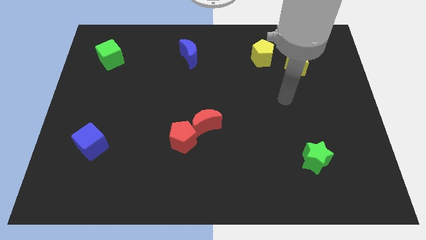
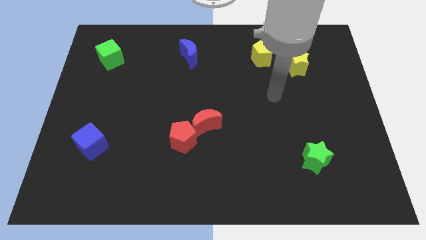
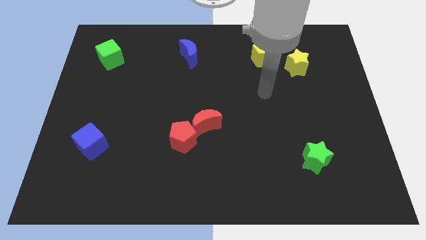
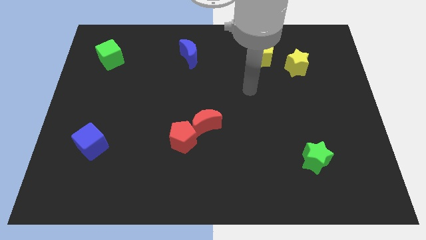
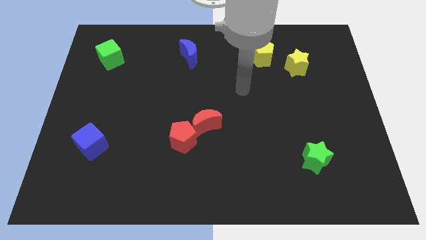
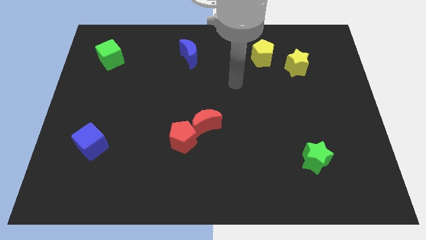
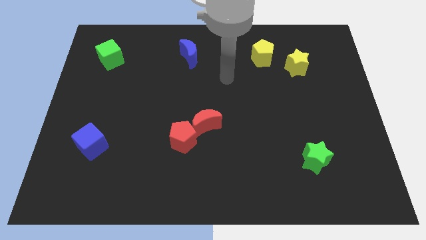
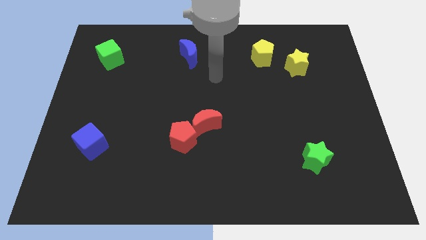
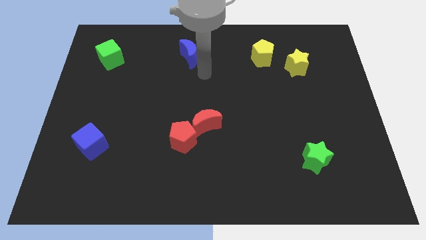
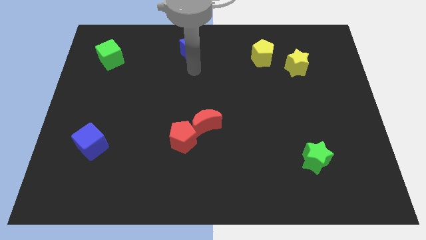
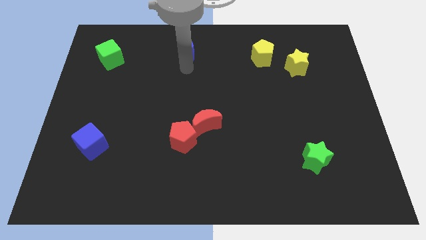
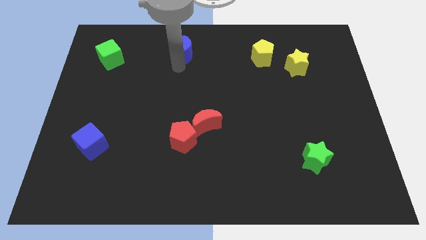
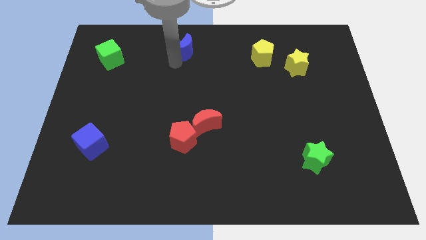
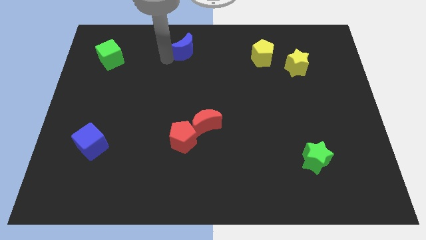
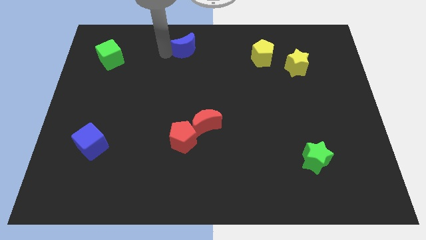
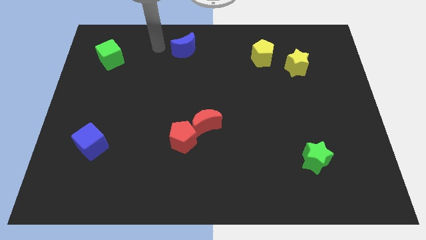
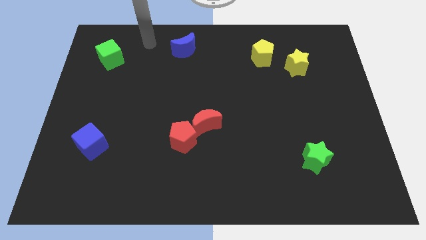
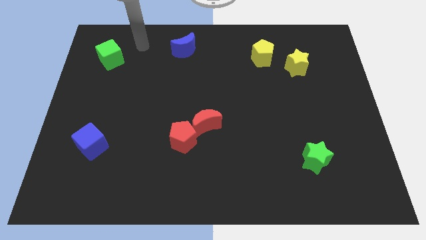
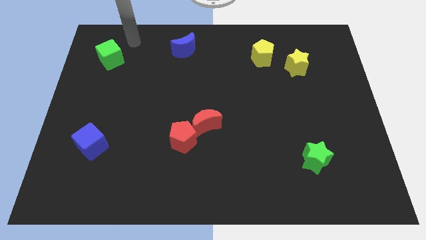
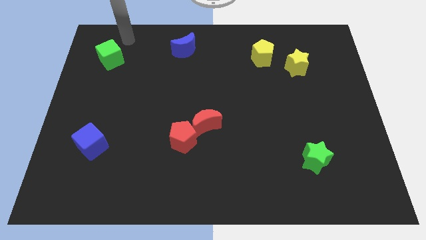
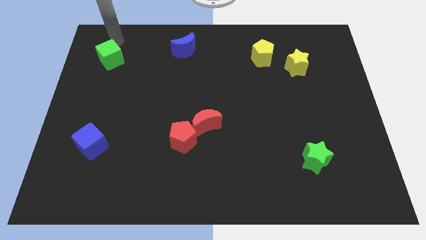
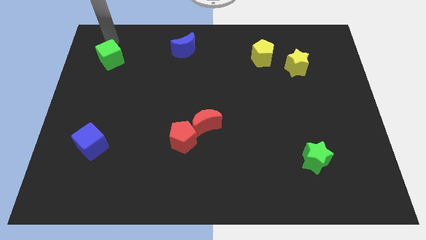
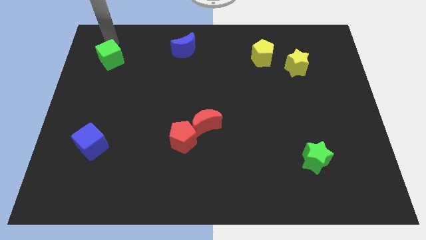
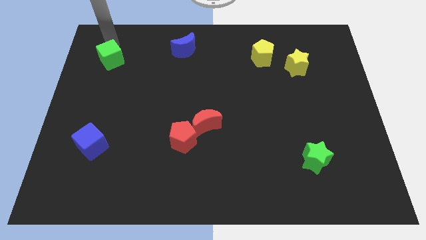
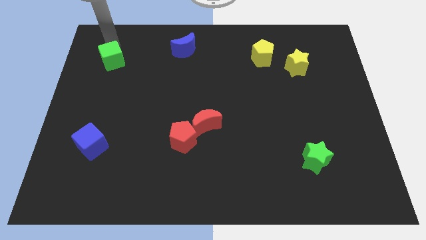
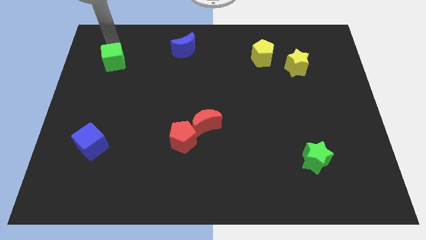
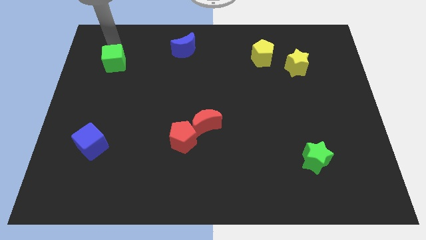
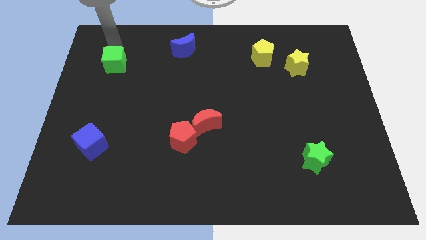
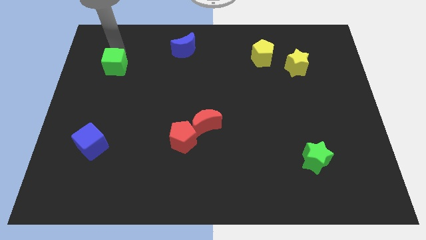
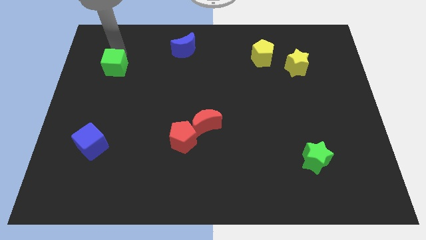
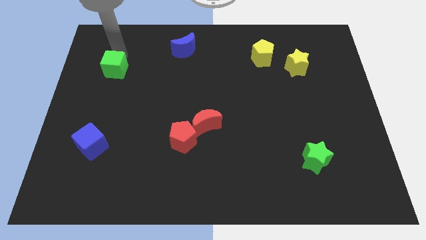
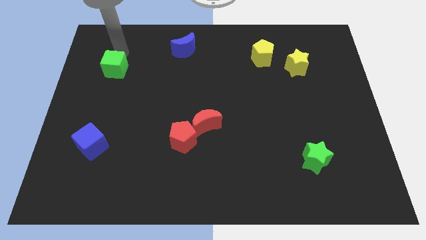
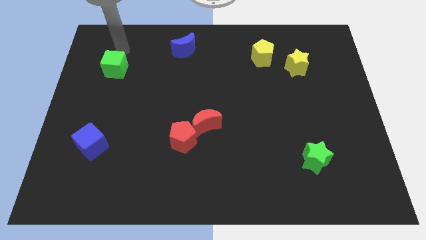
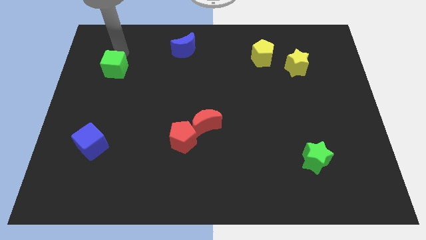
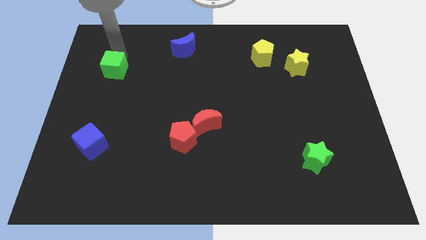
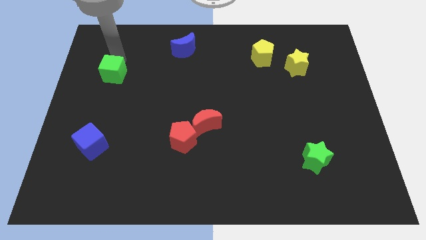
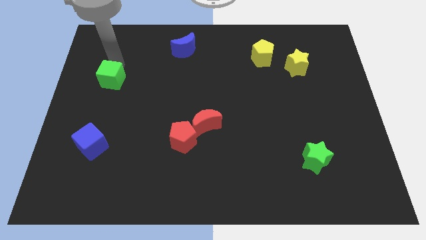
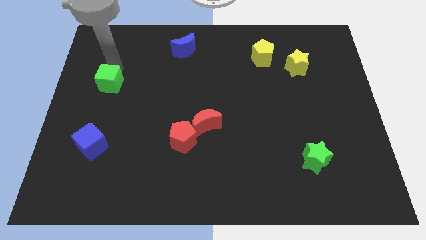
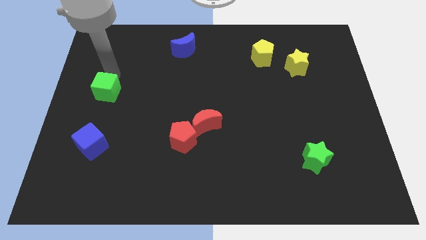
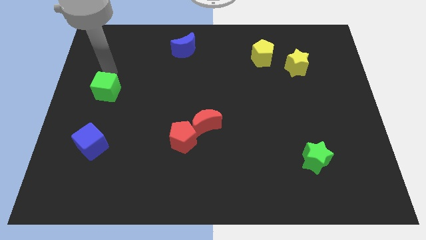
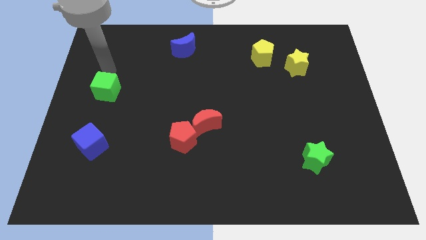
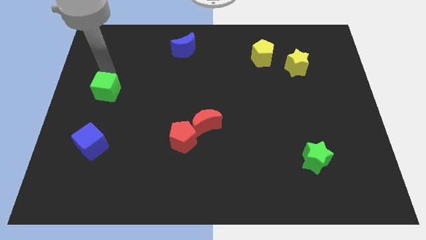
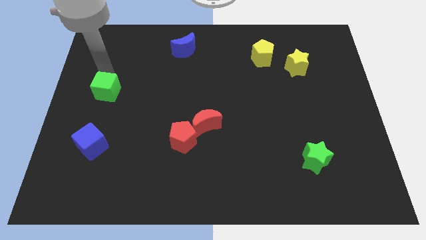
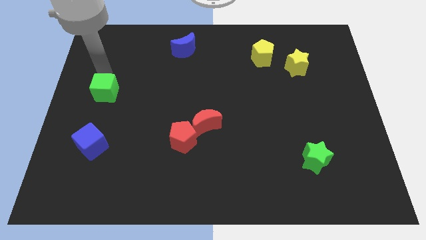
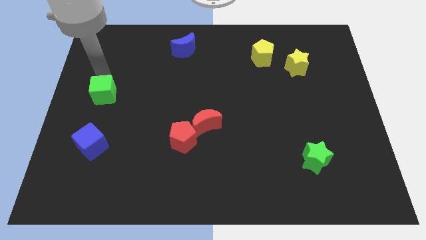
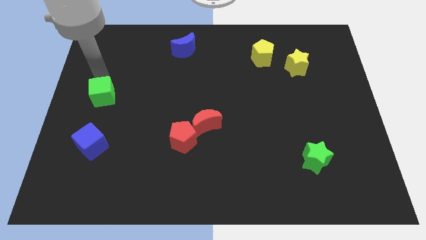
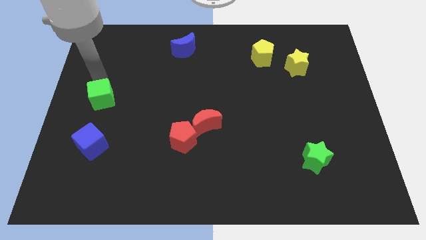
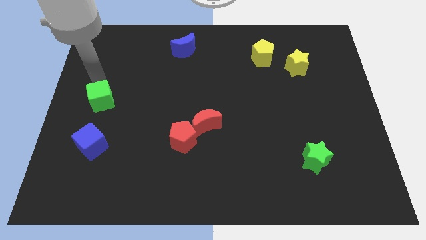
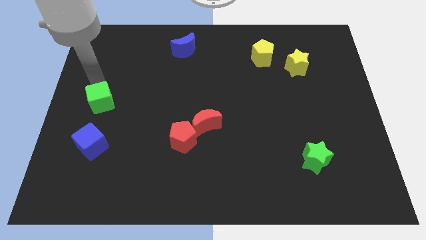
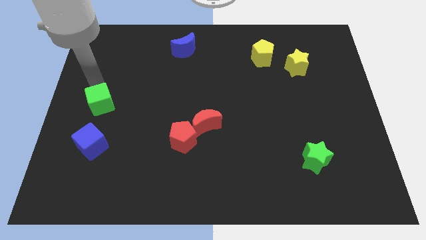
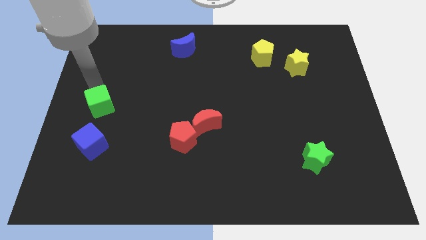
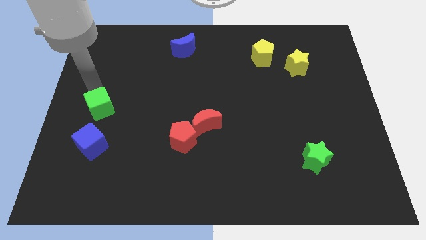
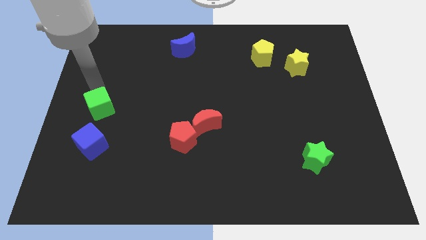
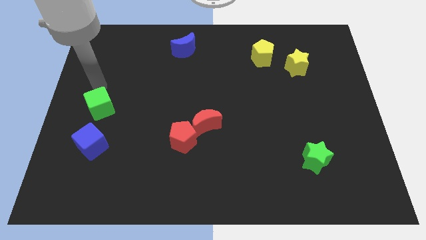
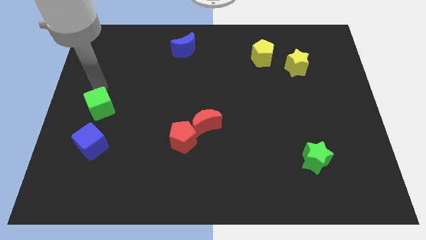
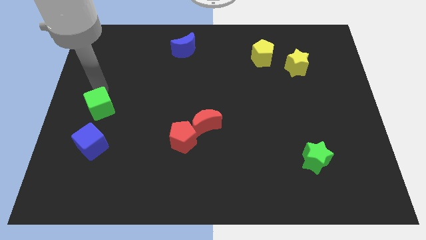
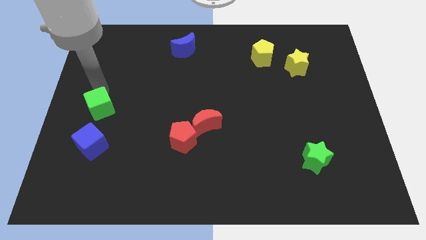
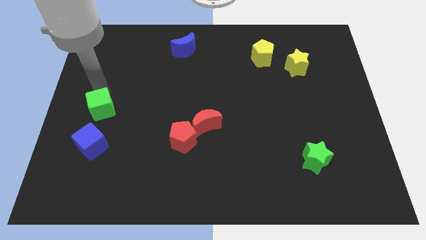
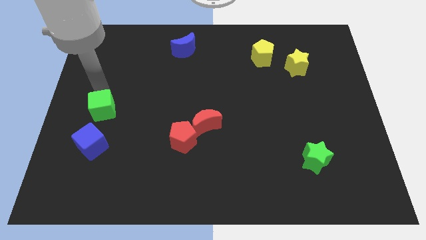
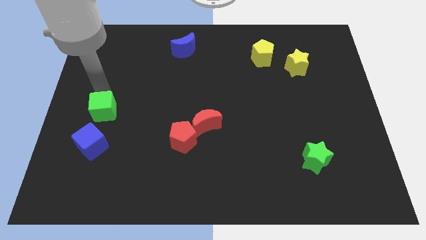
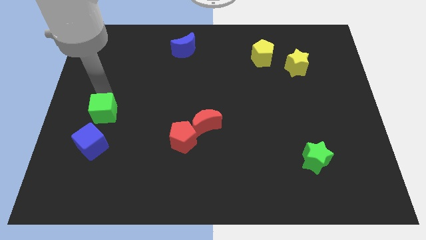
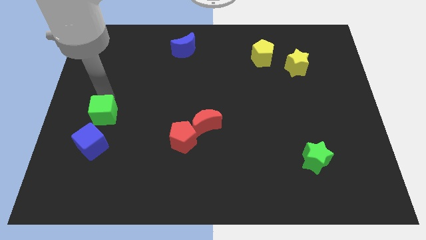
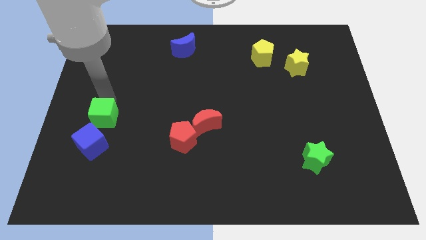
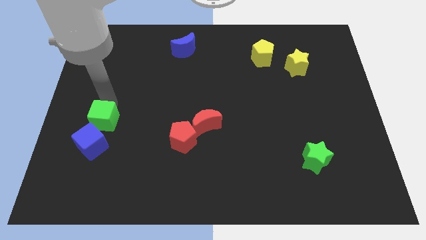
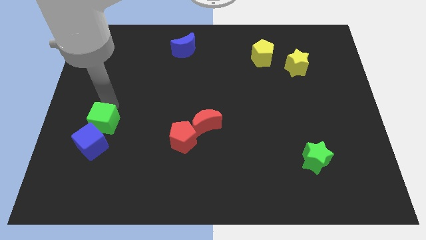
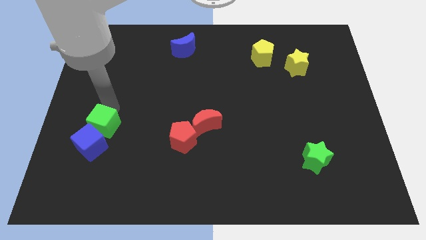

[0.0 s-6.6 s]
move the green cube next to the blue cube

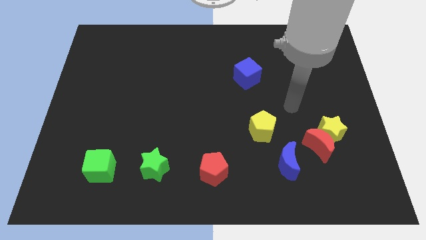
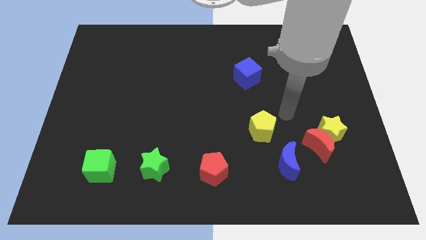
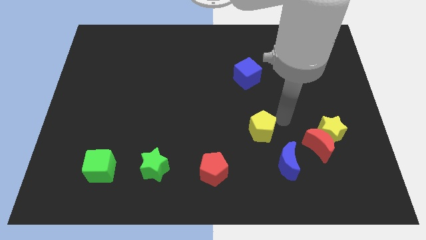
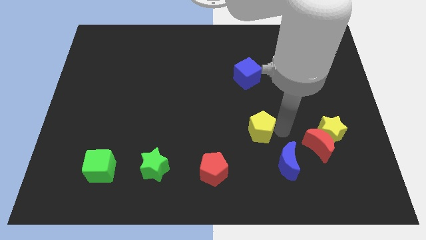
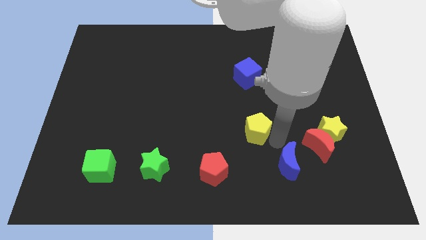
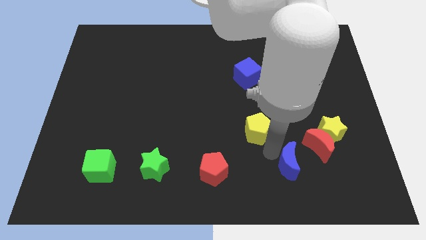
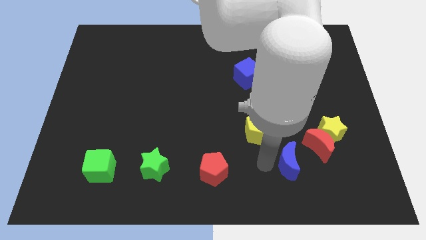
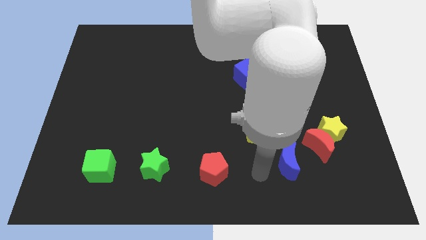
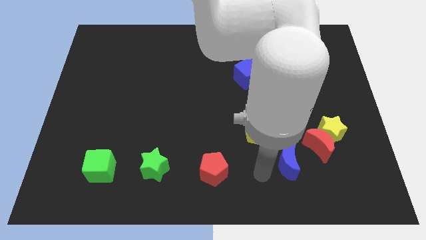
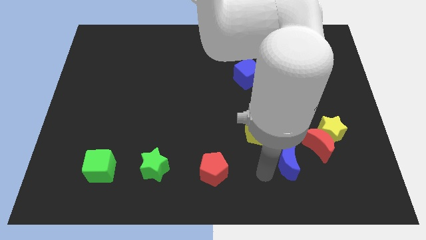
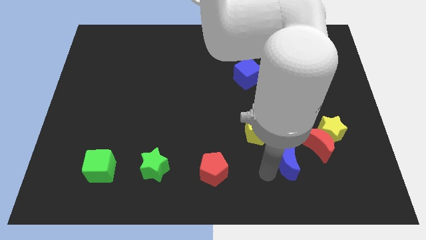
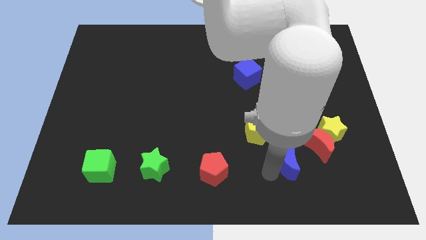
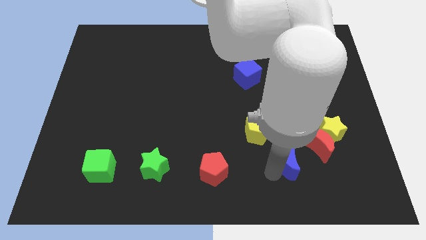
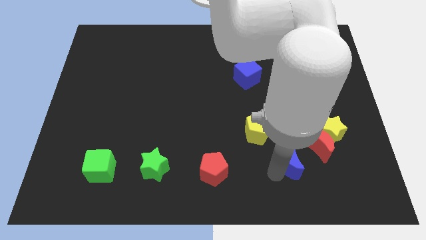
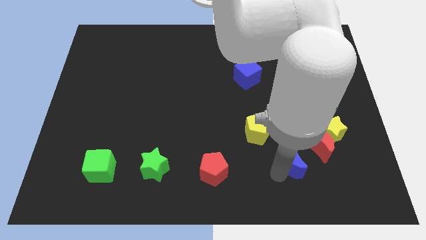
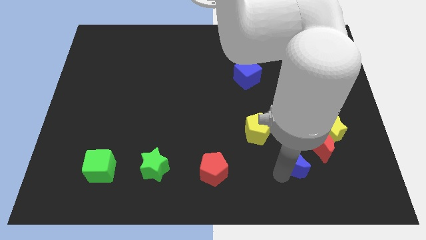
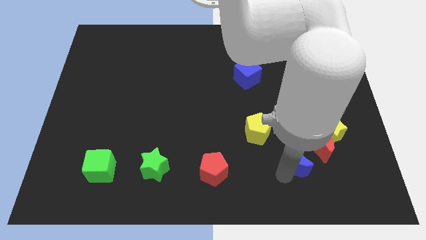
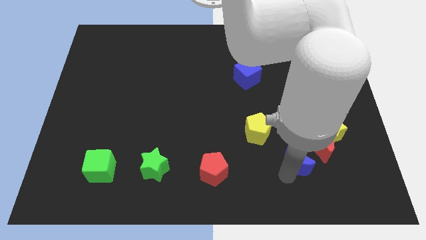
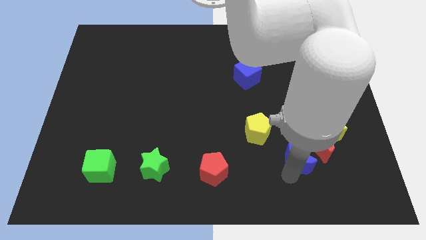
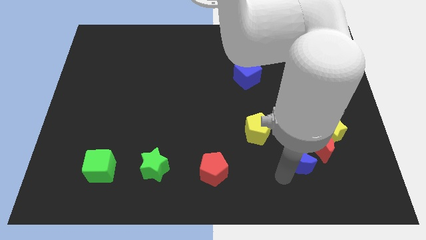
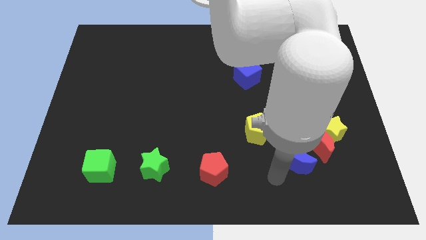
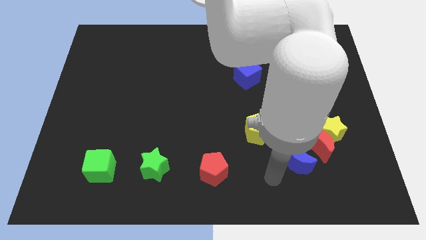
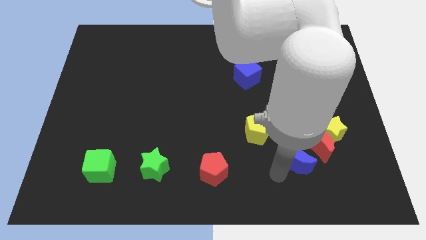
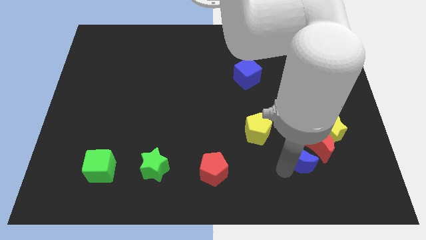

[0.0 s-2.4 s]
slide the blue moon towards the red moon
